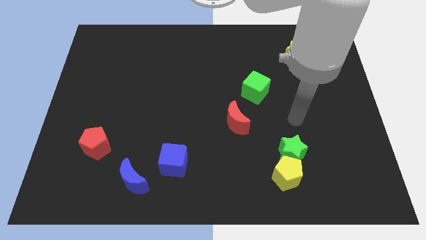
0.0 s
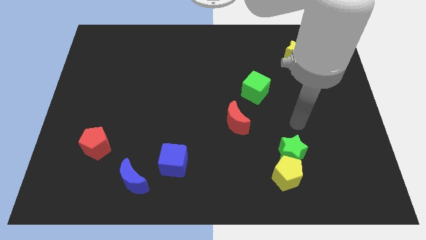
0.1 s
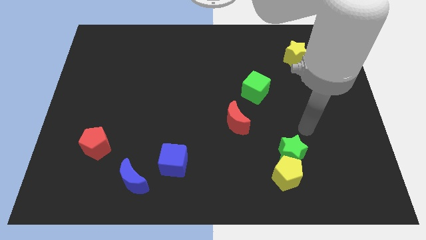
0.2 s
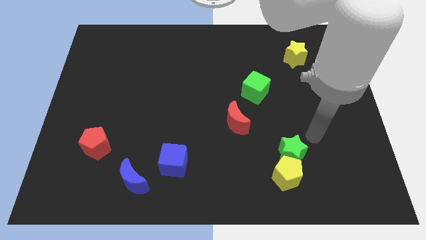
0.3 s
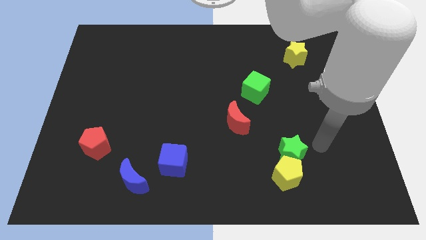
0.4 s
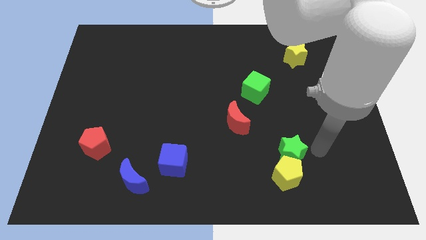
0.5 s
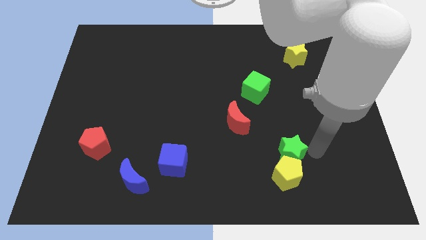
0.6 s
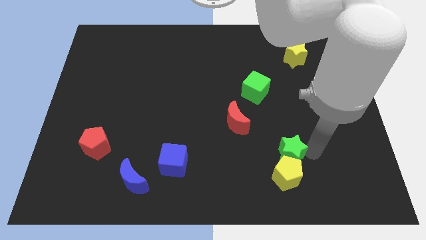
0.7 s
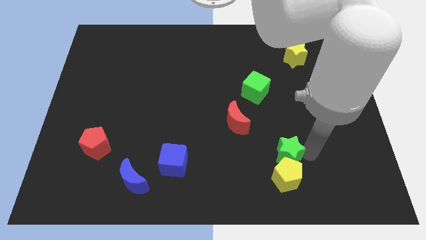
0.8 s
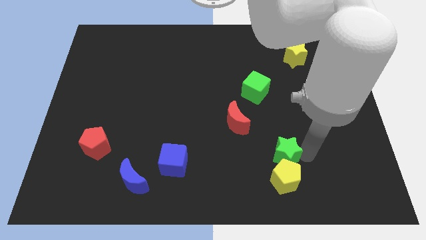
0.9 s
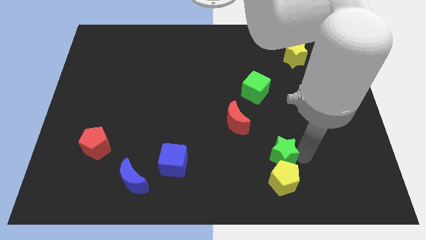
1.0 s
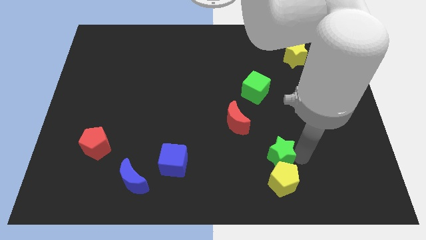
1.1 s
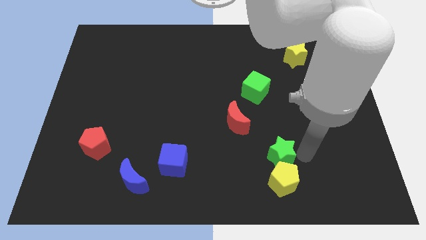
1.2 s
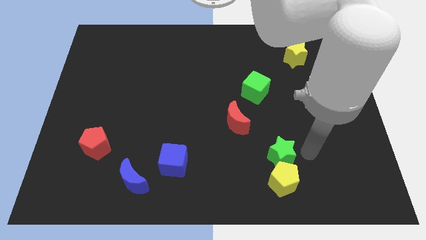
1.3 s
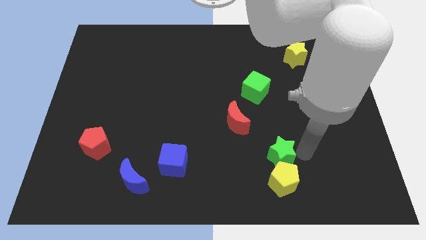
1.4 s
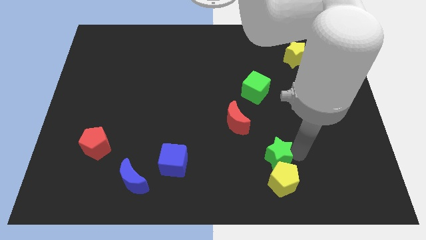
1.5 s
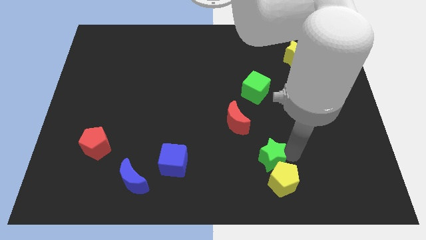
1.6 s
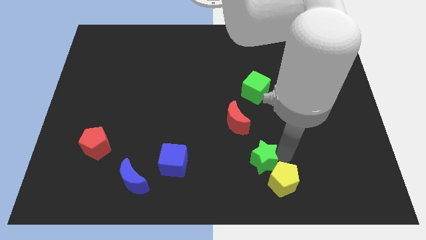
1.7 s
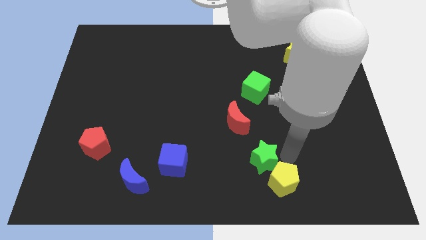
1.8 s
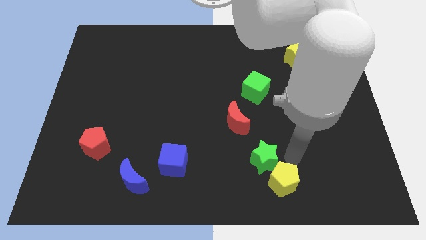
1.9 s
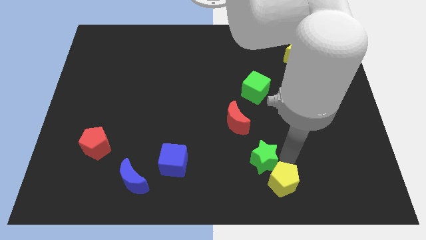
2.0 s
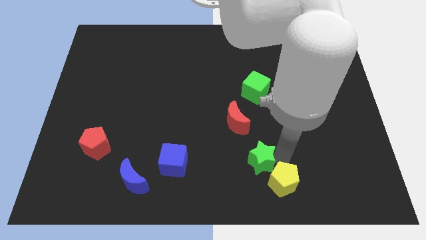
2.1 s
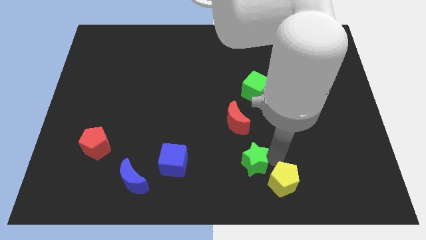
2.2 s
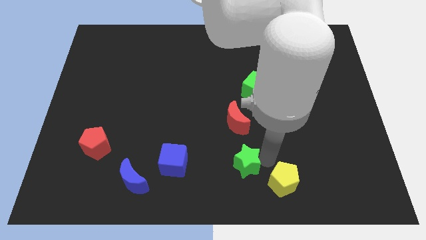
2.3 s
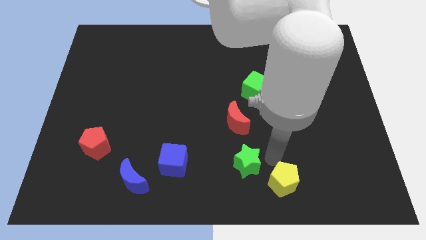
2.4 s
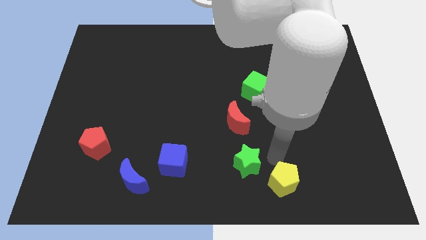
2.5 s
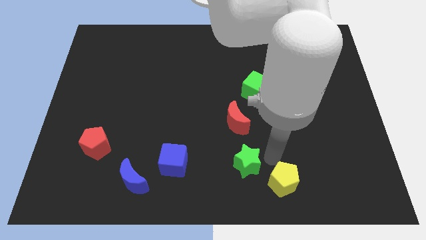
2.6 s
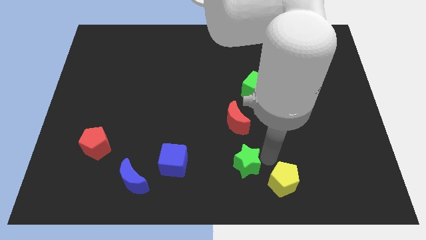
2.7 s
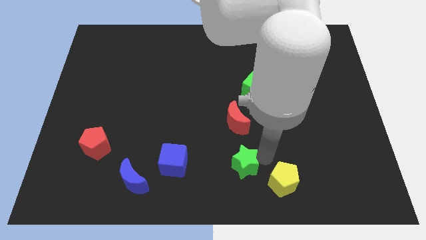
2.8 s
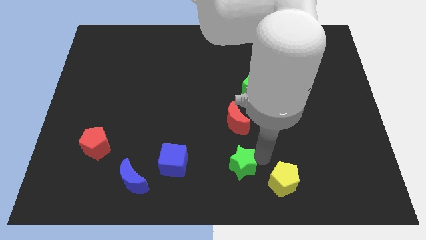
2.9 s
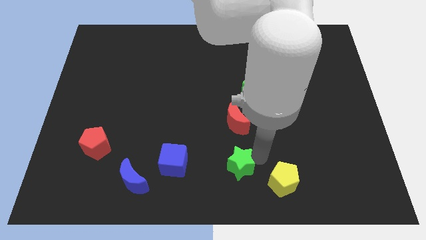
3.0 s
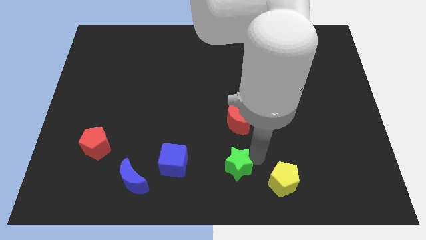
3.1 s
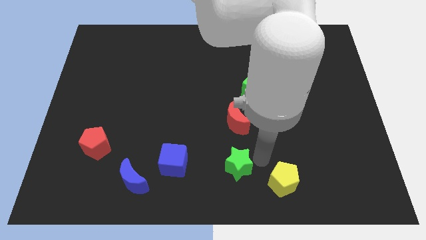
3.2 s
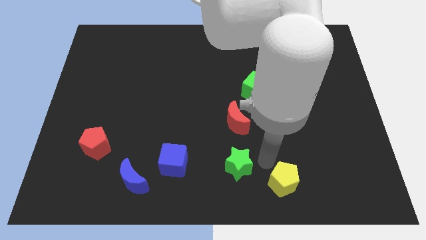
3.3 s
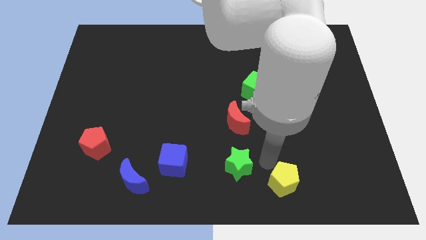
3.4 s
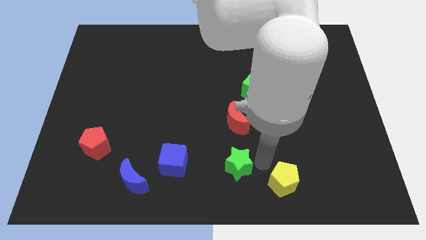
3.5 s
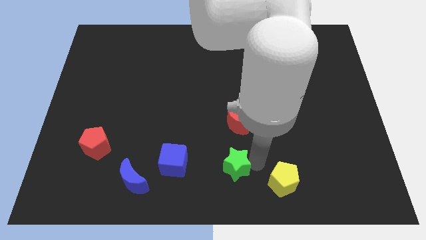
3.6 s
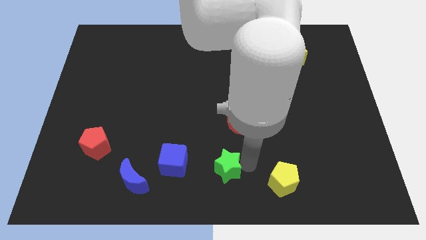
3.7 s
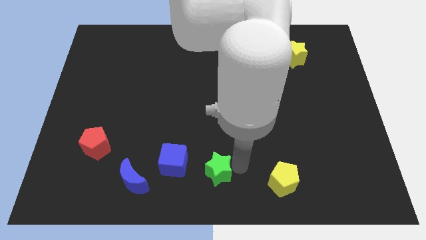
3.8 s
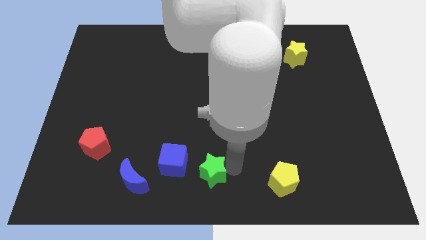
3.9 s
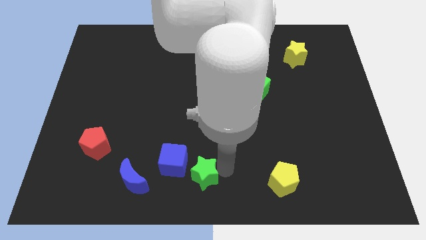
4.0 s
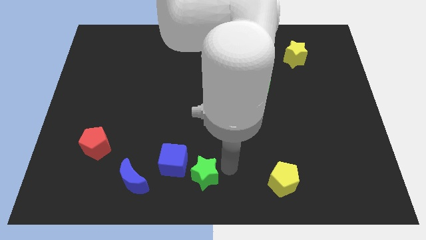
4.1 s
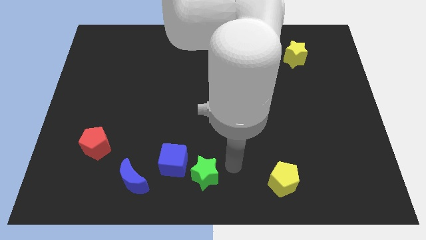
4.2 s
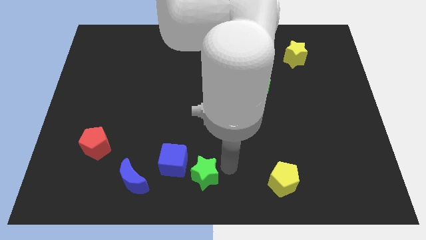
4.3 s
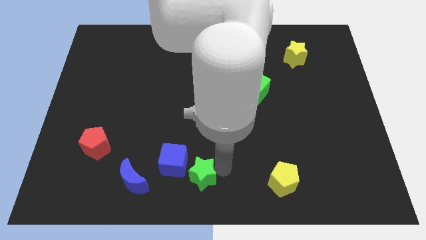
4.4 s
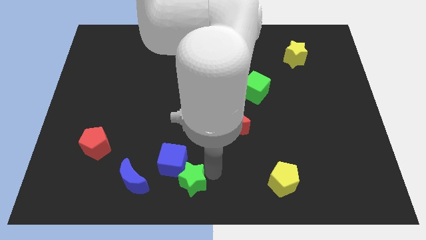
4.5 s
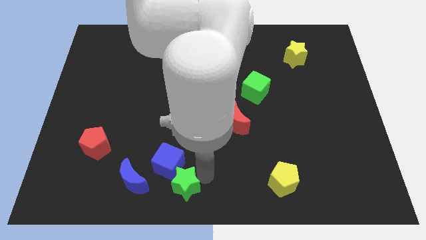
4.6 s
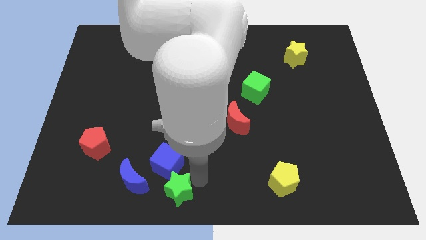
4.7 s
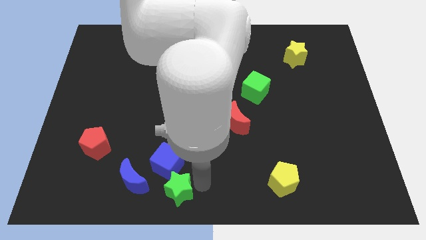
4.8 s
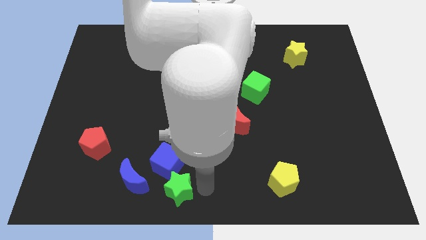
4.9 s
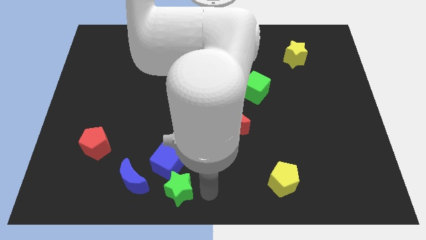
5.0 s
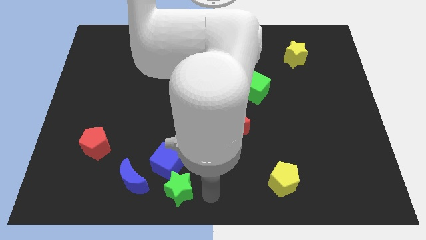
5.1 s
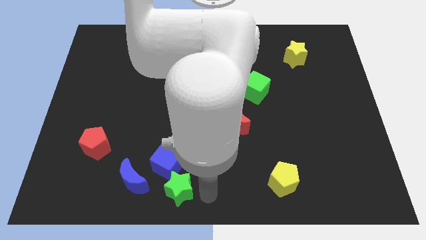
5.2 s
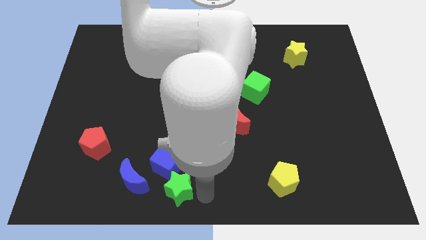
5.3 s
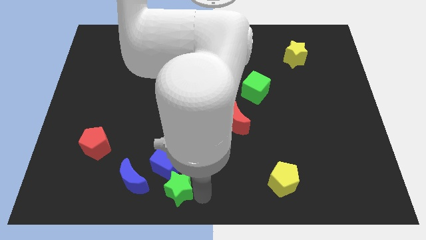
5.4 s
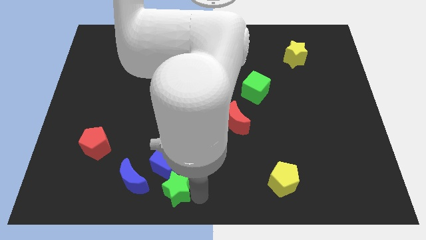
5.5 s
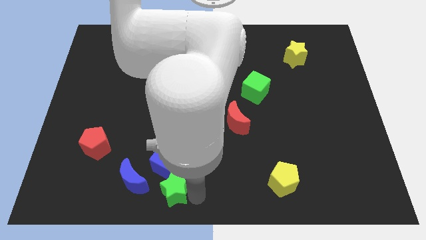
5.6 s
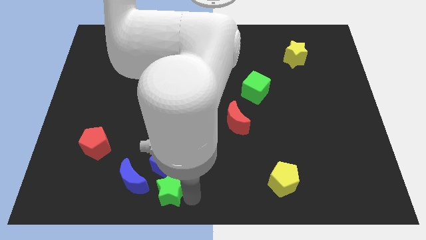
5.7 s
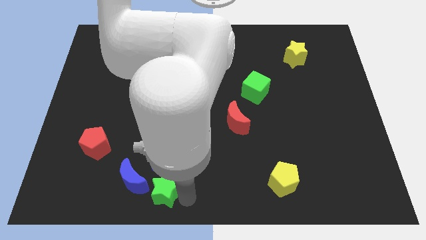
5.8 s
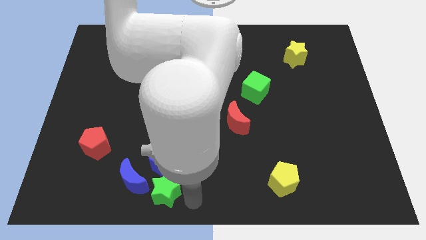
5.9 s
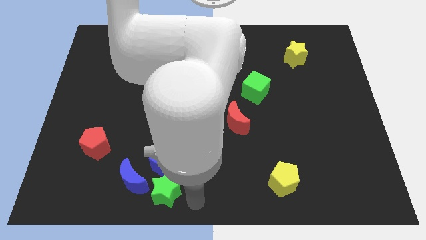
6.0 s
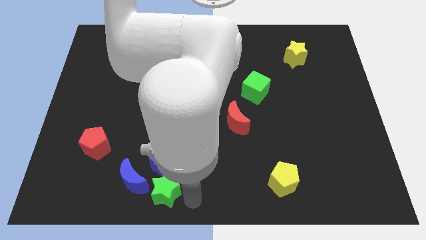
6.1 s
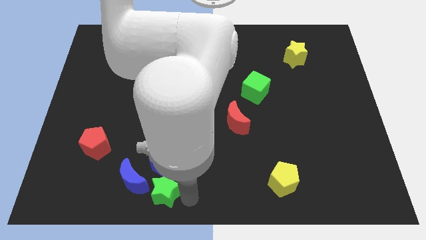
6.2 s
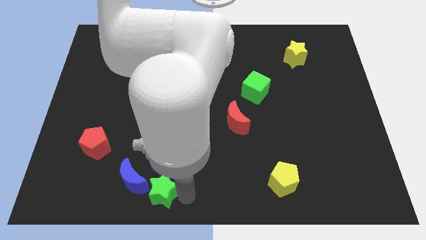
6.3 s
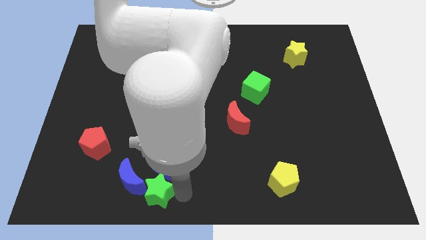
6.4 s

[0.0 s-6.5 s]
push the green star close to the blue moon

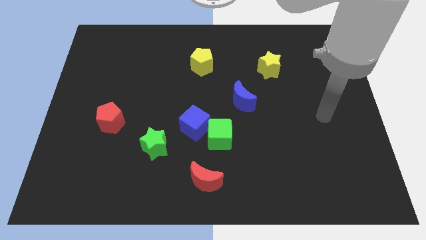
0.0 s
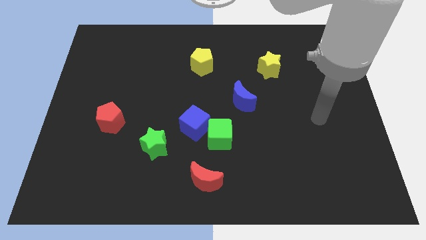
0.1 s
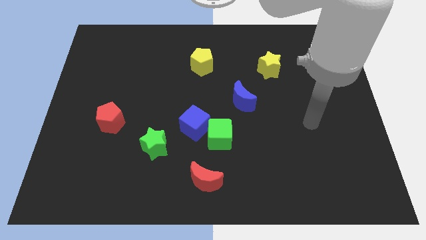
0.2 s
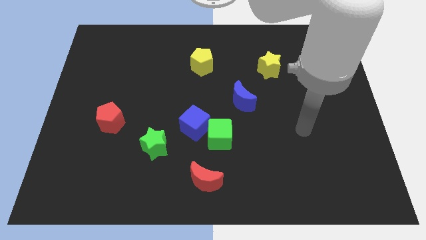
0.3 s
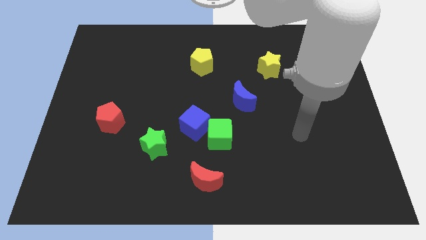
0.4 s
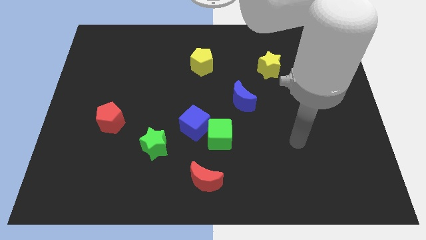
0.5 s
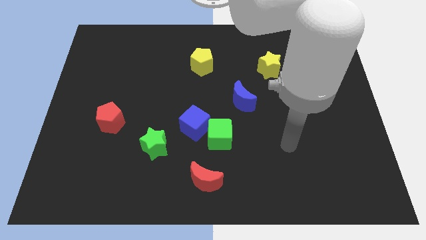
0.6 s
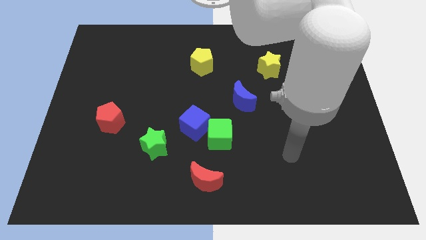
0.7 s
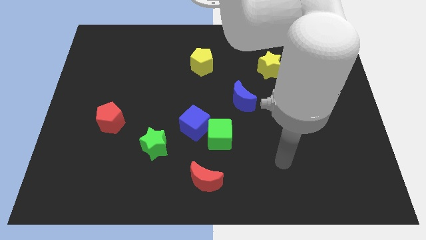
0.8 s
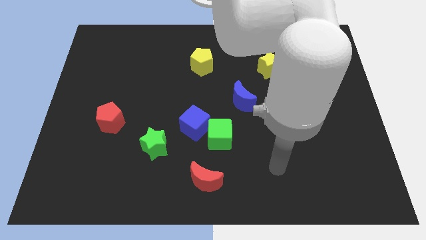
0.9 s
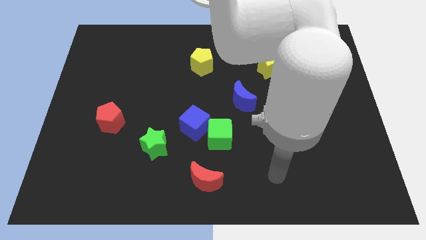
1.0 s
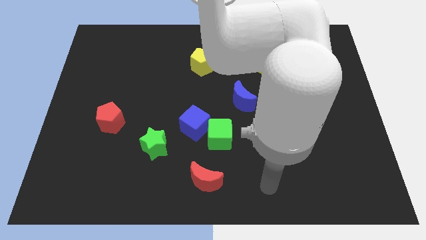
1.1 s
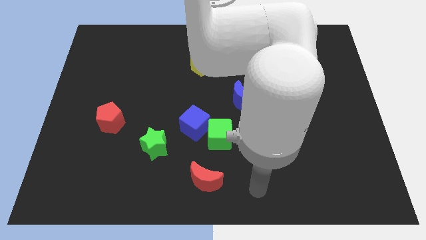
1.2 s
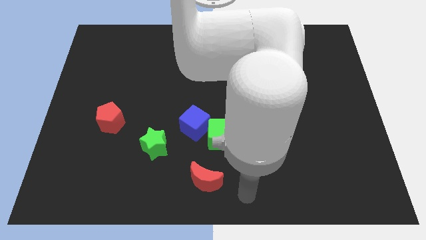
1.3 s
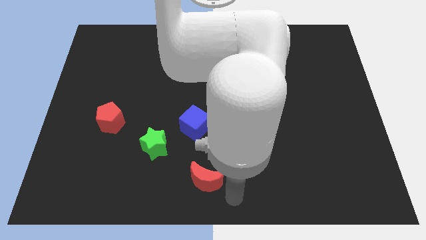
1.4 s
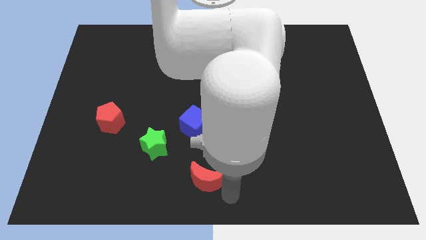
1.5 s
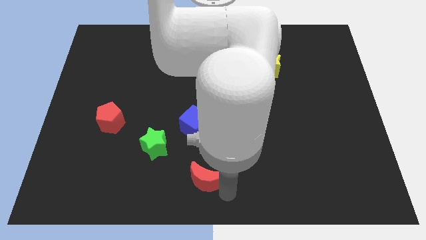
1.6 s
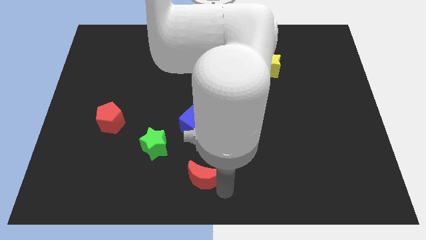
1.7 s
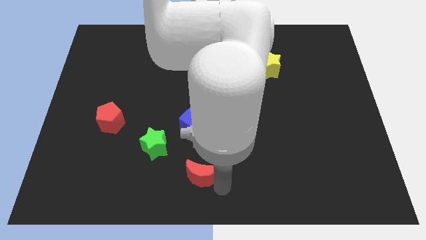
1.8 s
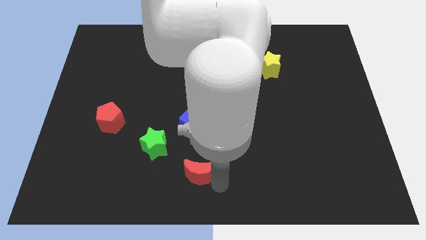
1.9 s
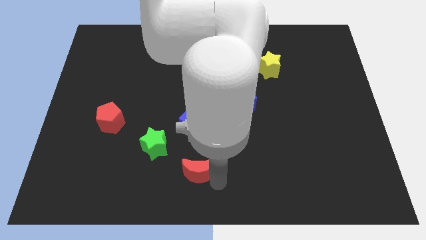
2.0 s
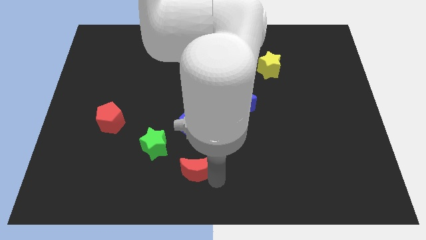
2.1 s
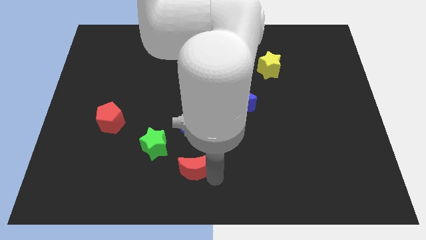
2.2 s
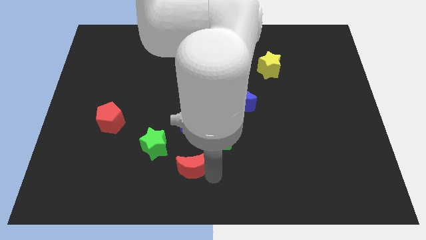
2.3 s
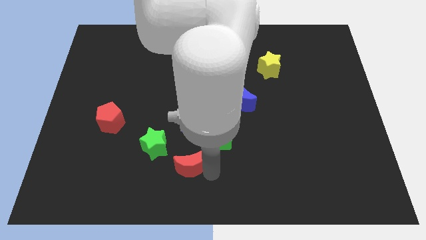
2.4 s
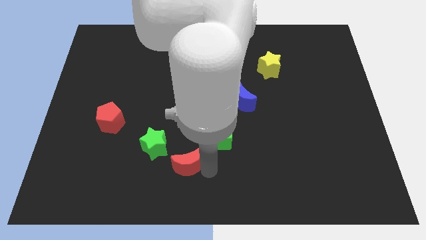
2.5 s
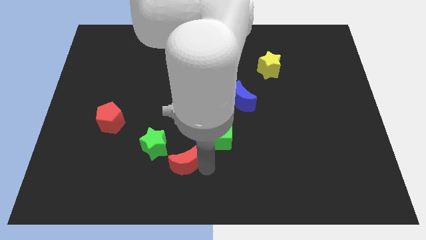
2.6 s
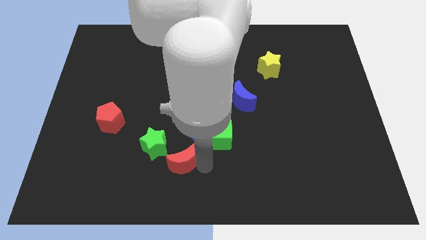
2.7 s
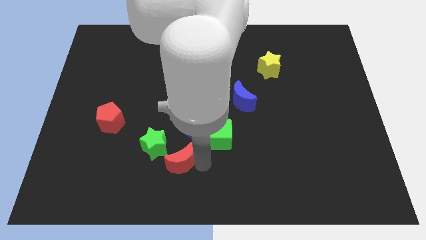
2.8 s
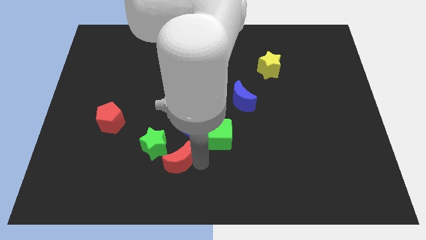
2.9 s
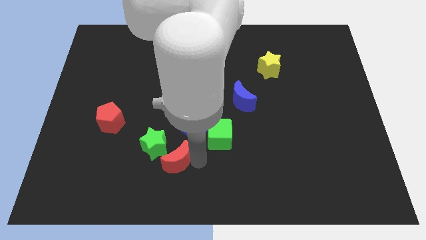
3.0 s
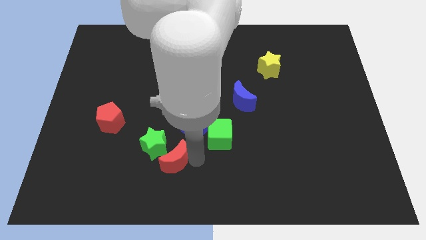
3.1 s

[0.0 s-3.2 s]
move the red moon to the green star
